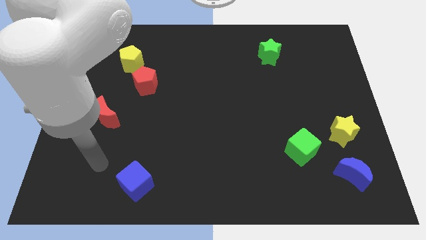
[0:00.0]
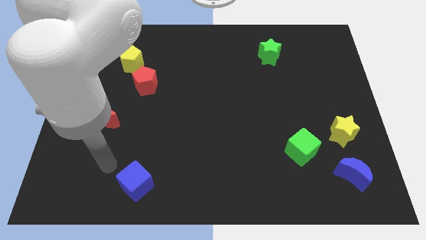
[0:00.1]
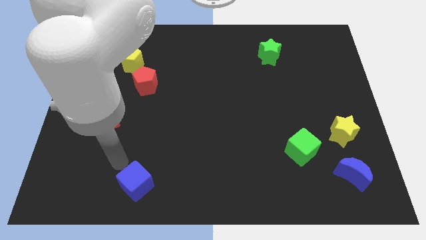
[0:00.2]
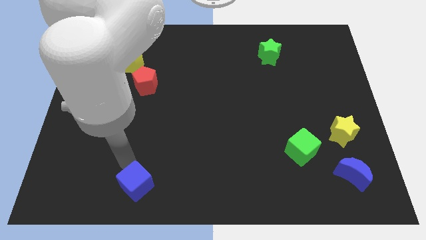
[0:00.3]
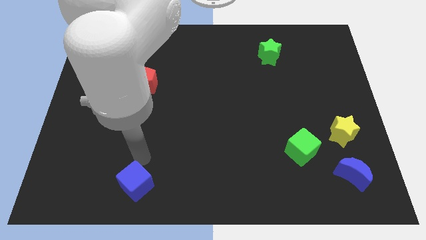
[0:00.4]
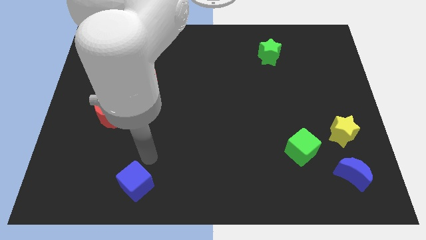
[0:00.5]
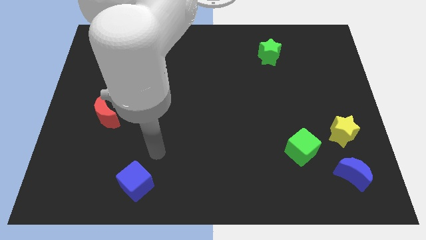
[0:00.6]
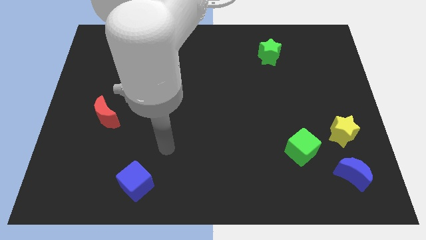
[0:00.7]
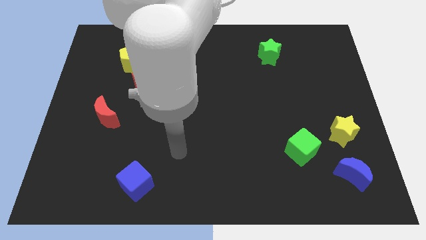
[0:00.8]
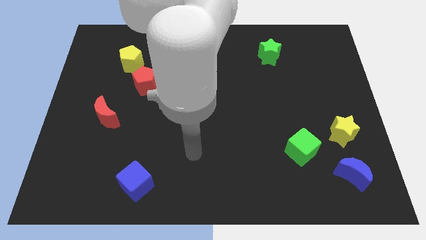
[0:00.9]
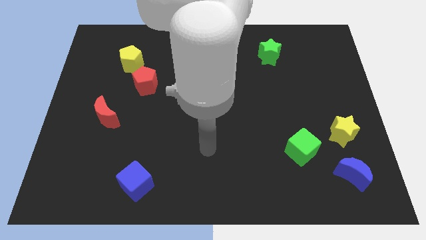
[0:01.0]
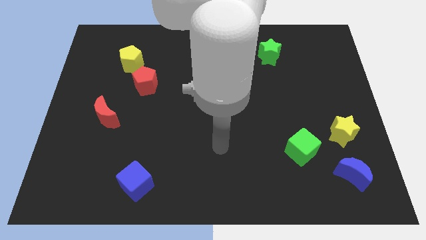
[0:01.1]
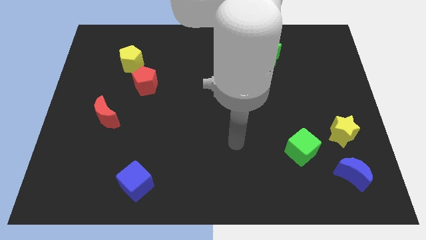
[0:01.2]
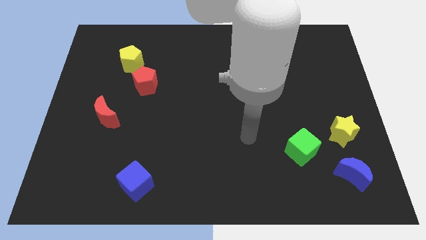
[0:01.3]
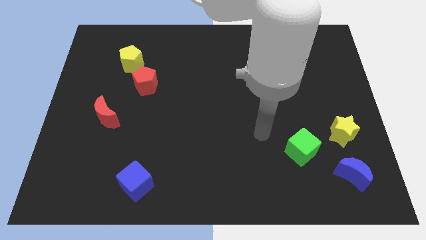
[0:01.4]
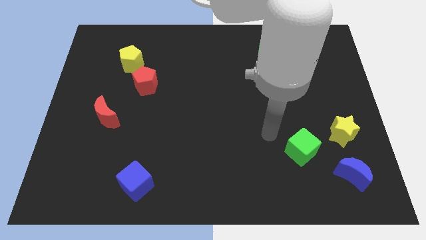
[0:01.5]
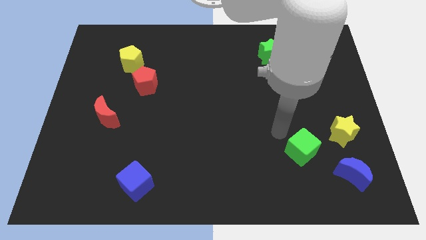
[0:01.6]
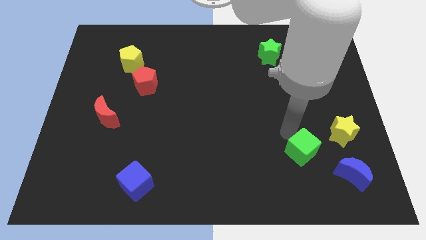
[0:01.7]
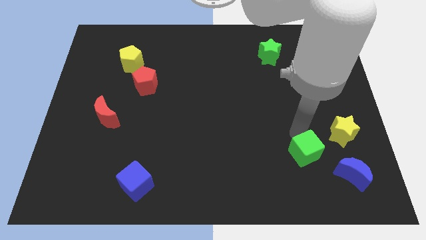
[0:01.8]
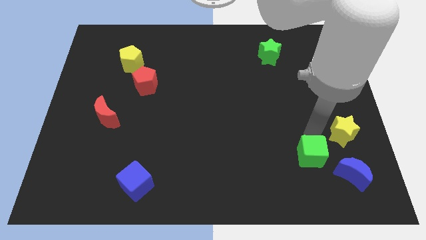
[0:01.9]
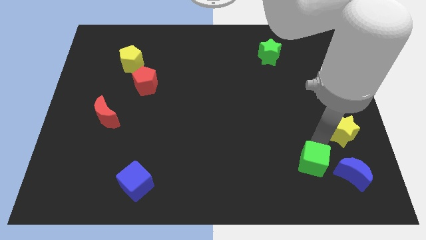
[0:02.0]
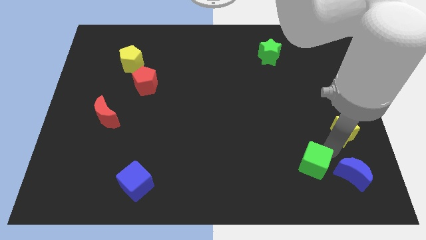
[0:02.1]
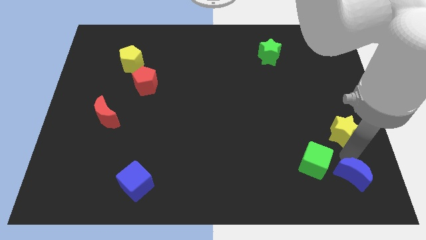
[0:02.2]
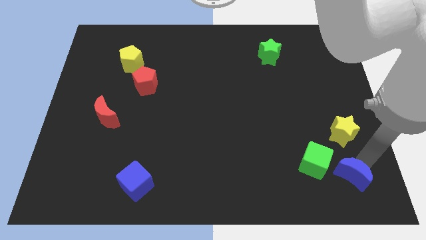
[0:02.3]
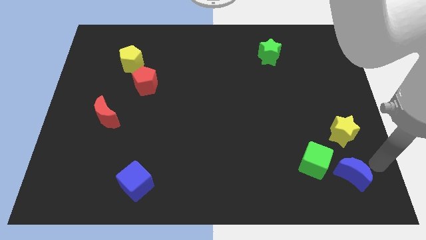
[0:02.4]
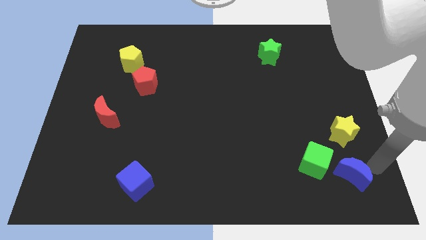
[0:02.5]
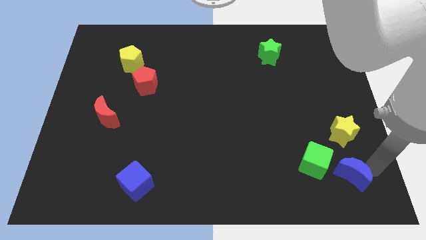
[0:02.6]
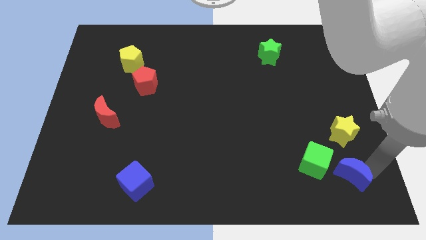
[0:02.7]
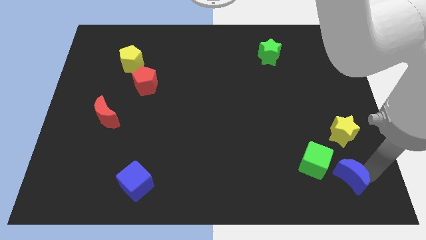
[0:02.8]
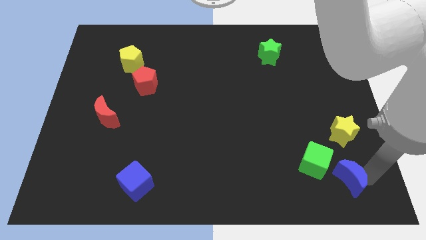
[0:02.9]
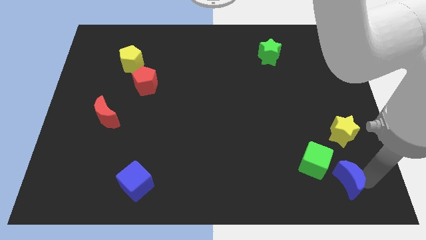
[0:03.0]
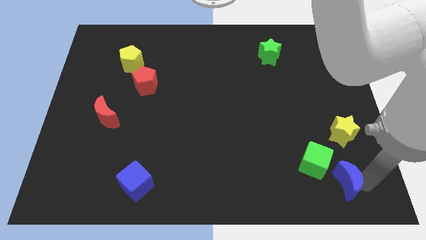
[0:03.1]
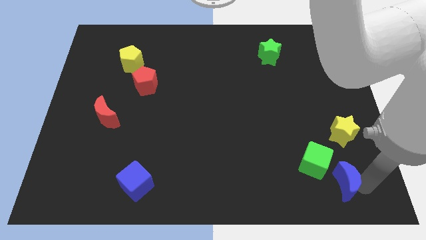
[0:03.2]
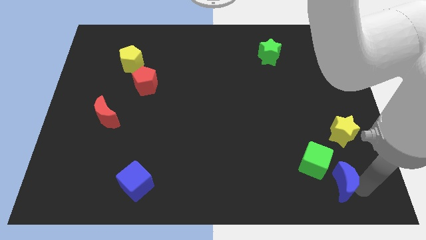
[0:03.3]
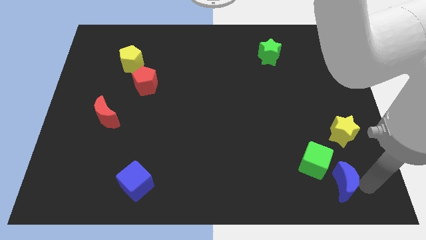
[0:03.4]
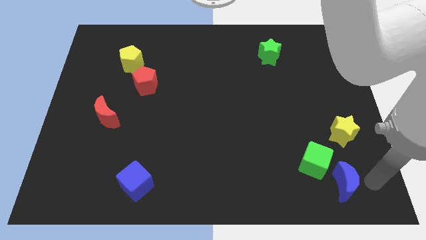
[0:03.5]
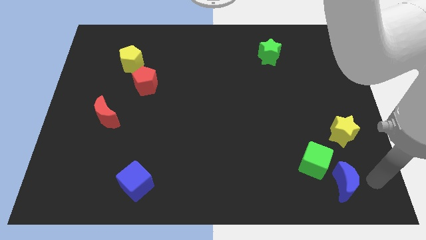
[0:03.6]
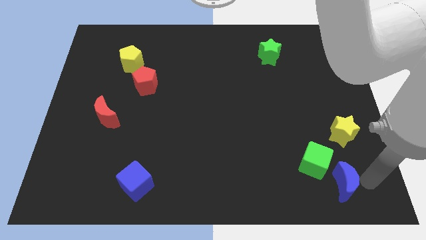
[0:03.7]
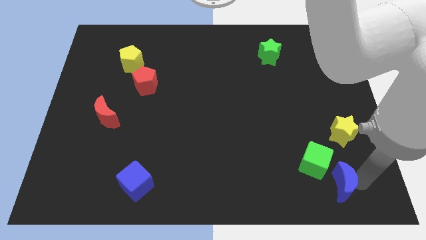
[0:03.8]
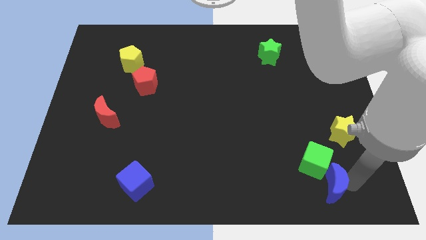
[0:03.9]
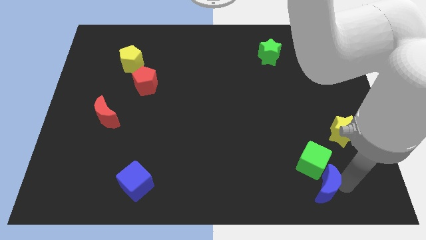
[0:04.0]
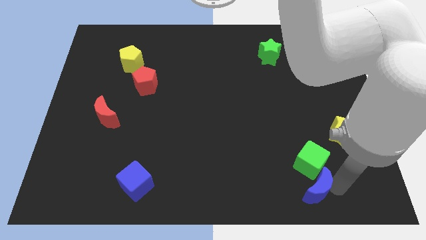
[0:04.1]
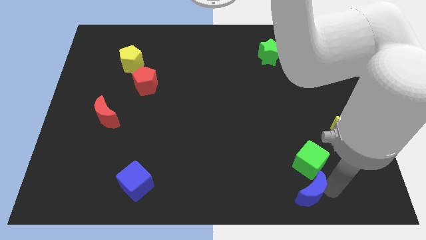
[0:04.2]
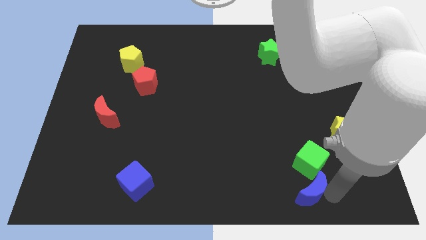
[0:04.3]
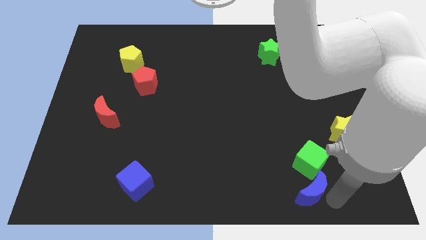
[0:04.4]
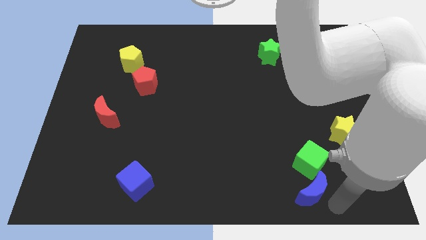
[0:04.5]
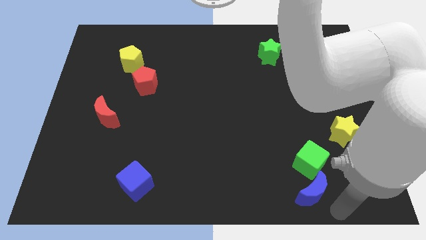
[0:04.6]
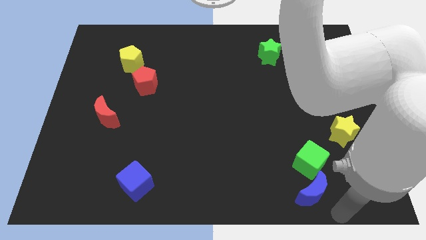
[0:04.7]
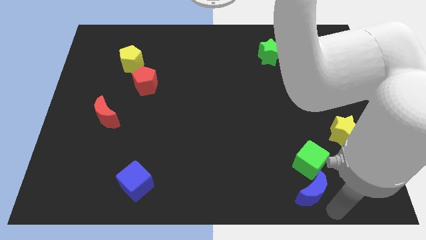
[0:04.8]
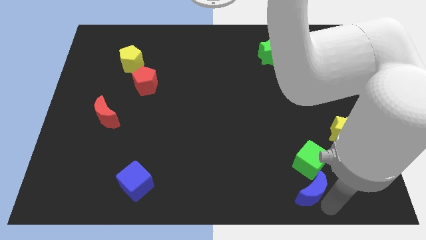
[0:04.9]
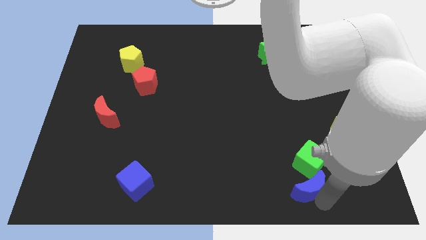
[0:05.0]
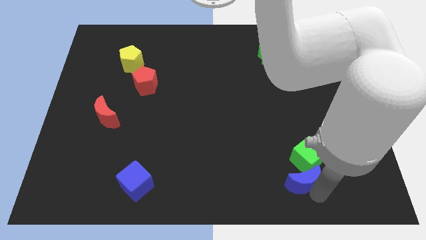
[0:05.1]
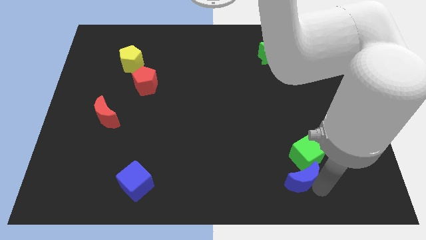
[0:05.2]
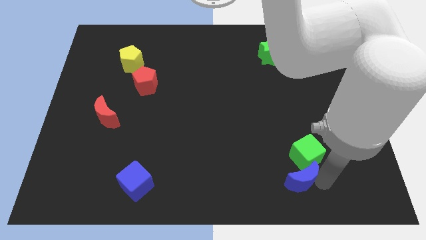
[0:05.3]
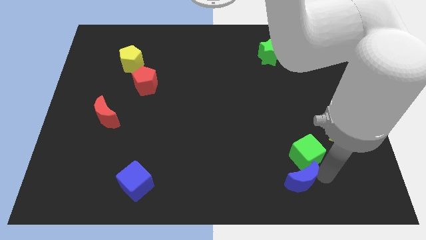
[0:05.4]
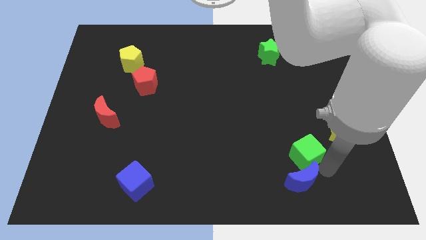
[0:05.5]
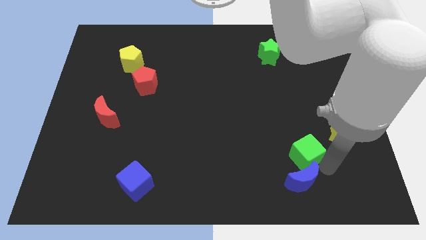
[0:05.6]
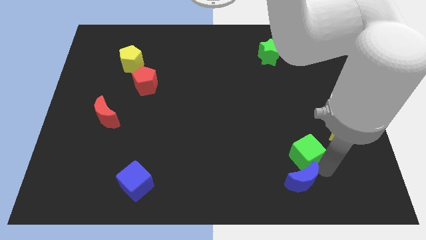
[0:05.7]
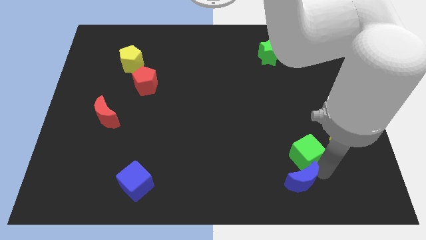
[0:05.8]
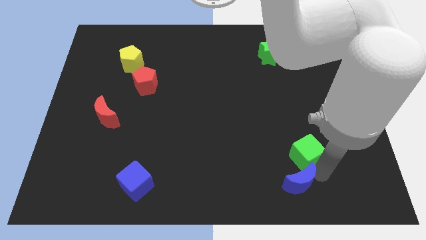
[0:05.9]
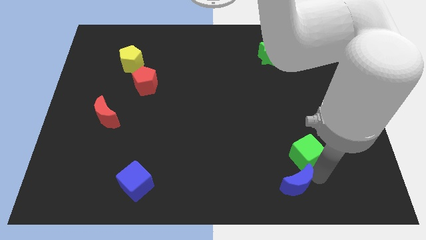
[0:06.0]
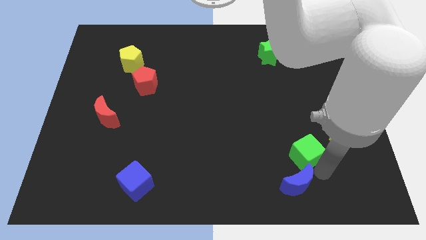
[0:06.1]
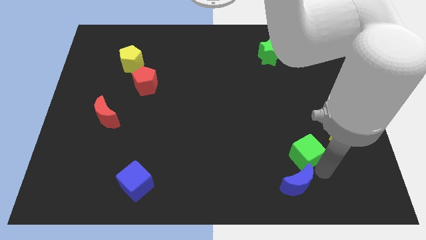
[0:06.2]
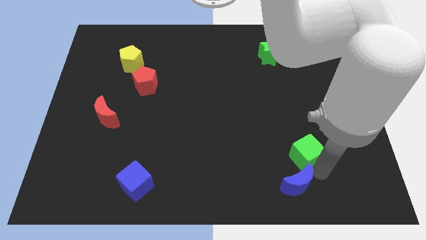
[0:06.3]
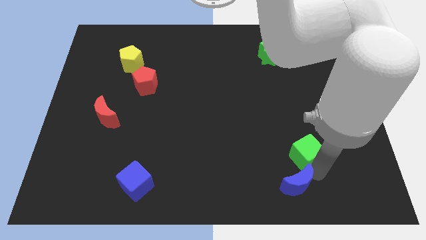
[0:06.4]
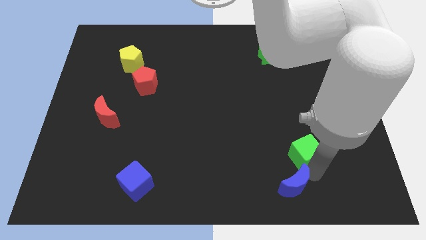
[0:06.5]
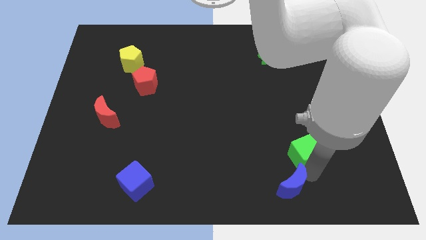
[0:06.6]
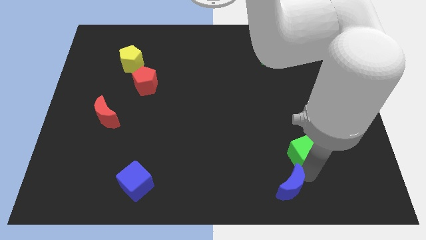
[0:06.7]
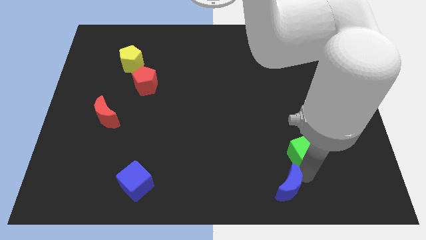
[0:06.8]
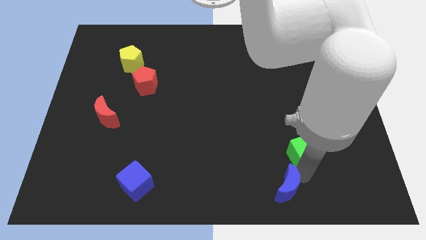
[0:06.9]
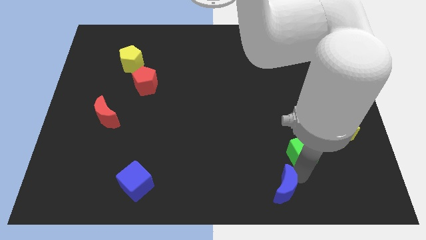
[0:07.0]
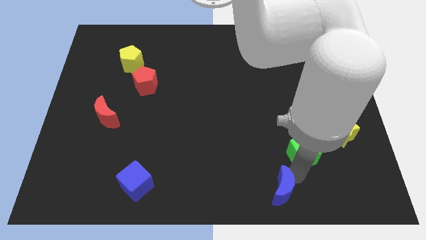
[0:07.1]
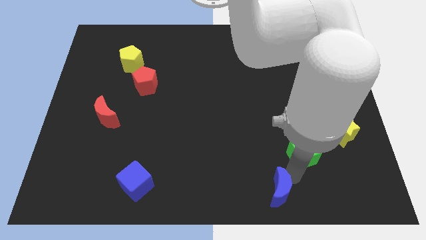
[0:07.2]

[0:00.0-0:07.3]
push the blue moon to the bottom
